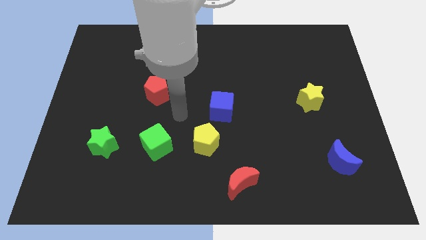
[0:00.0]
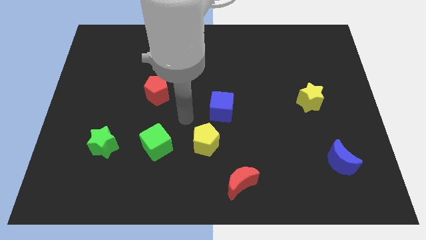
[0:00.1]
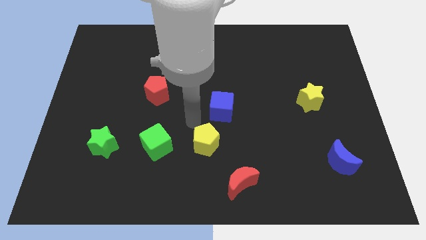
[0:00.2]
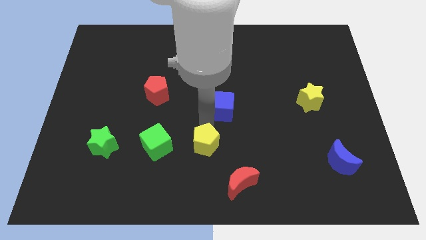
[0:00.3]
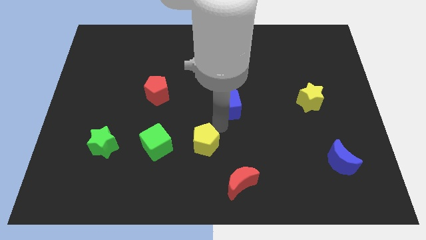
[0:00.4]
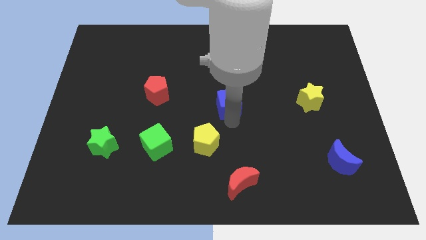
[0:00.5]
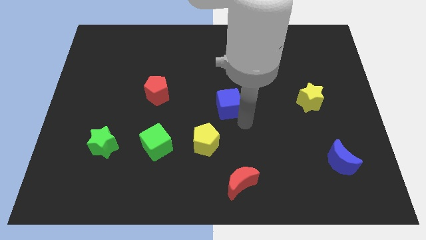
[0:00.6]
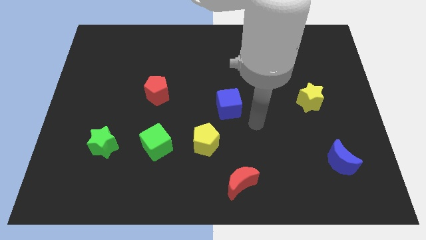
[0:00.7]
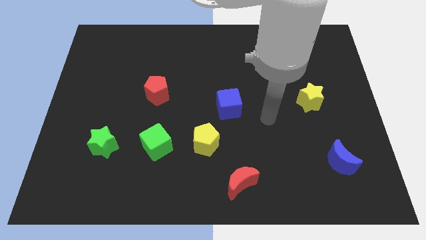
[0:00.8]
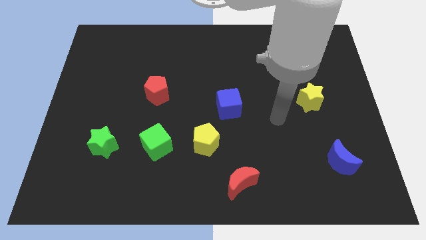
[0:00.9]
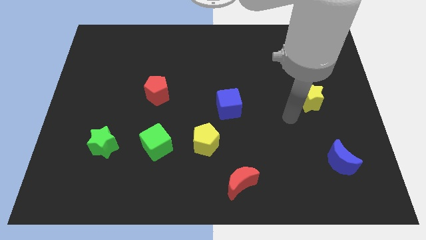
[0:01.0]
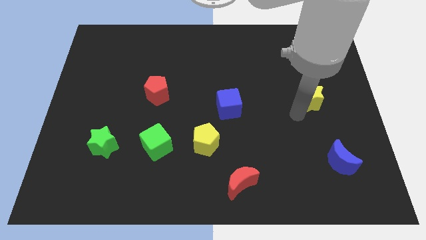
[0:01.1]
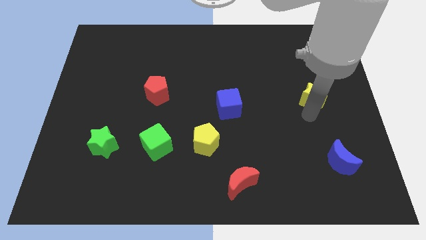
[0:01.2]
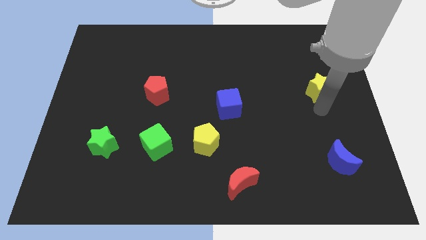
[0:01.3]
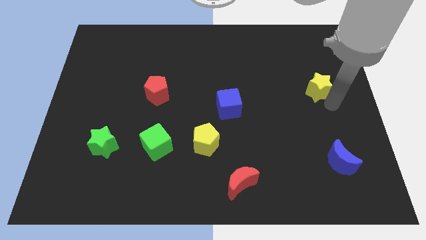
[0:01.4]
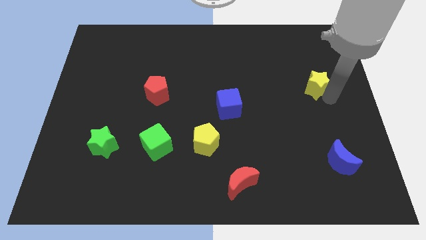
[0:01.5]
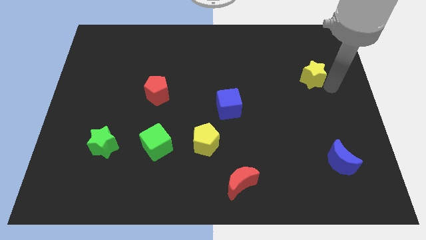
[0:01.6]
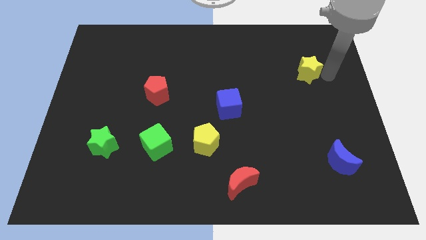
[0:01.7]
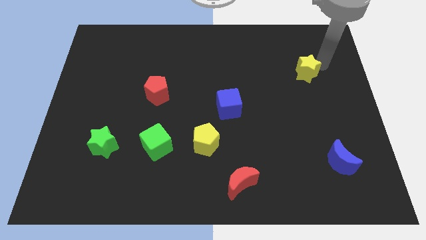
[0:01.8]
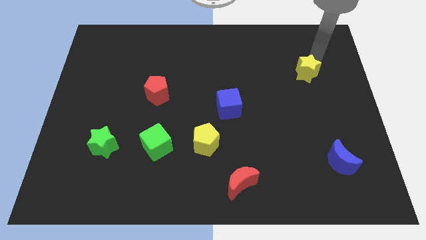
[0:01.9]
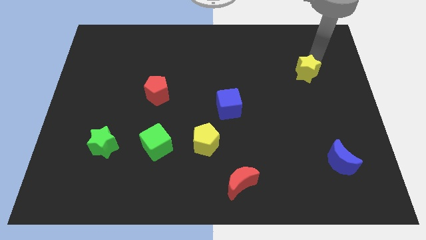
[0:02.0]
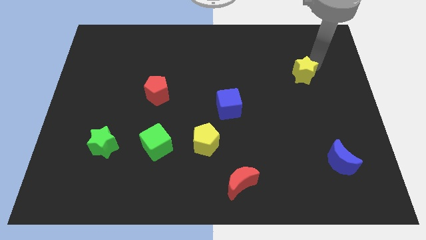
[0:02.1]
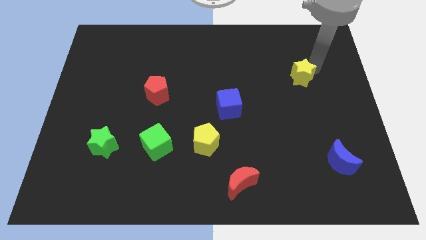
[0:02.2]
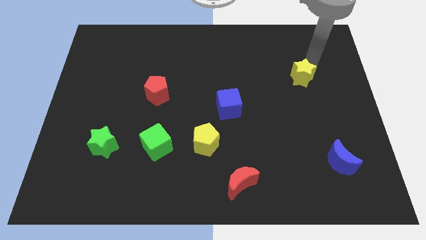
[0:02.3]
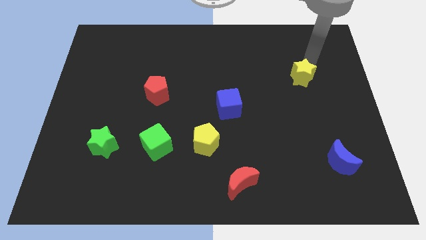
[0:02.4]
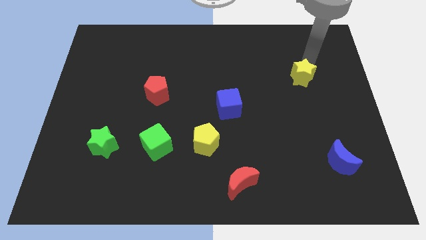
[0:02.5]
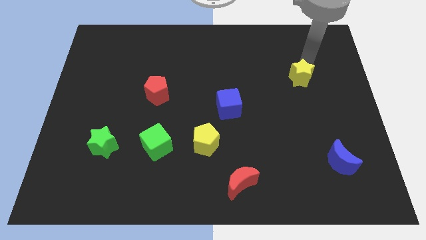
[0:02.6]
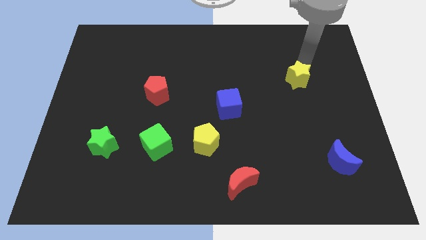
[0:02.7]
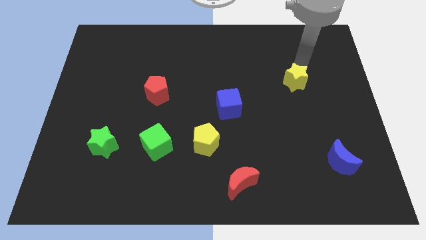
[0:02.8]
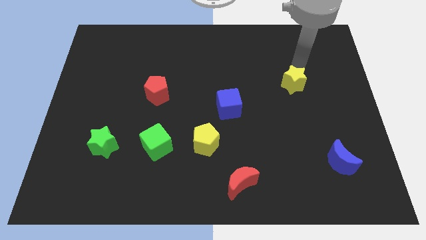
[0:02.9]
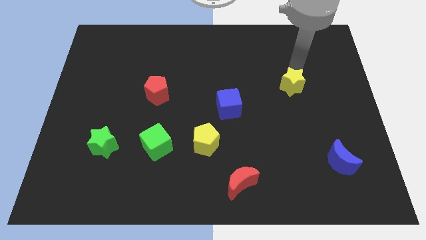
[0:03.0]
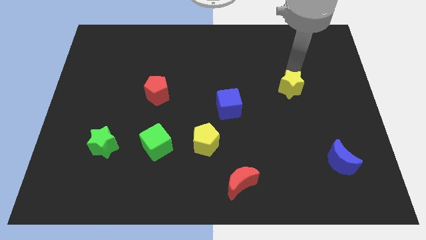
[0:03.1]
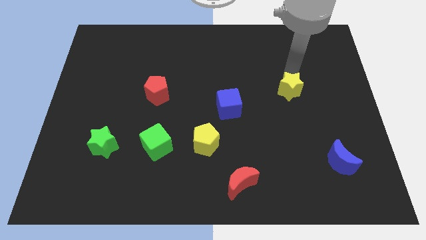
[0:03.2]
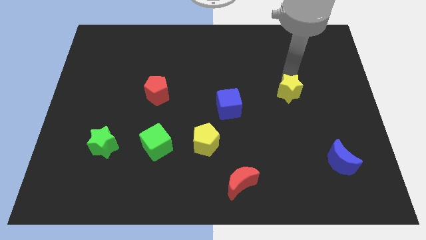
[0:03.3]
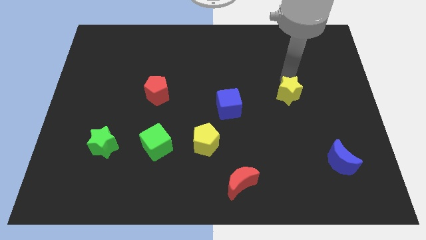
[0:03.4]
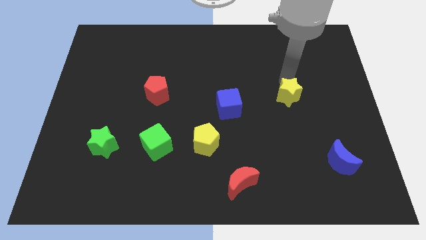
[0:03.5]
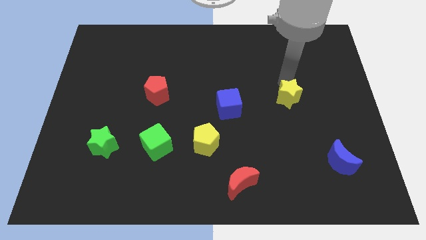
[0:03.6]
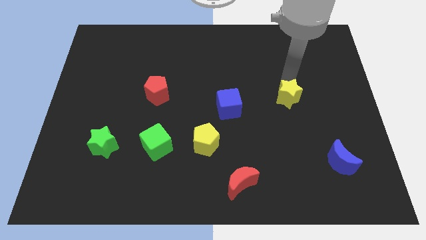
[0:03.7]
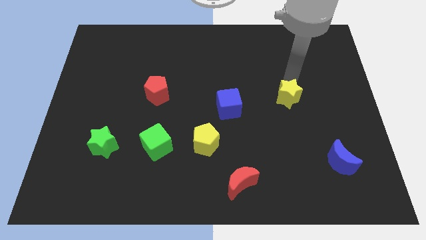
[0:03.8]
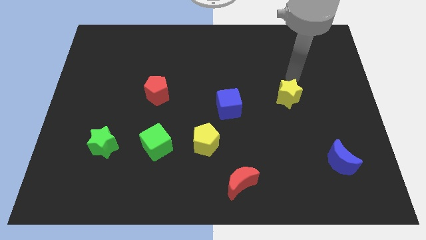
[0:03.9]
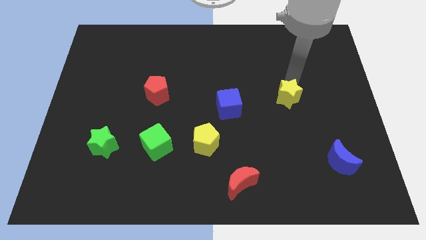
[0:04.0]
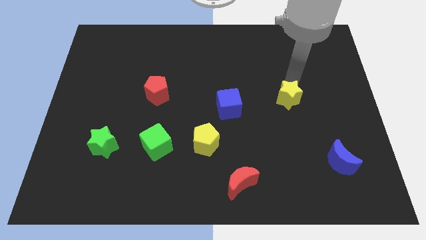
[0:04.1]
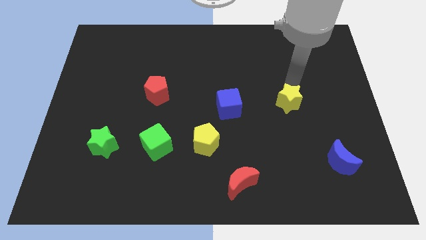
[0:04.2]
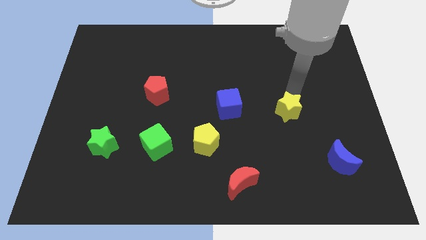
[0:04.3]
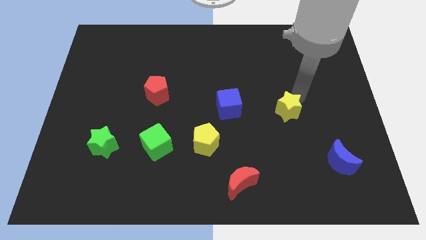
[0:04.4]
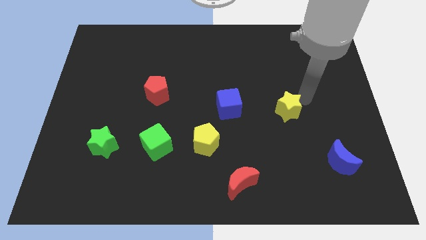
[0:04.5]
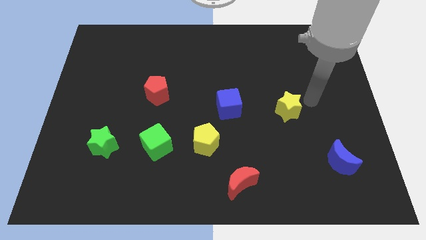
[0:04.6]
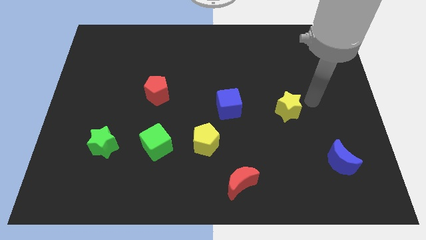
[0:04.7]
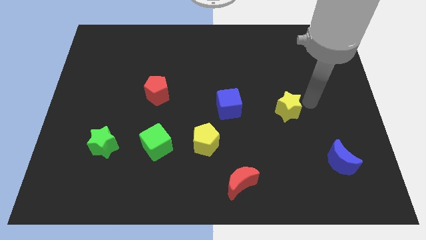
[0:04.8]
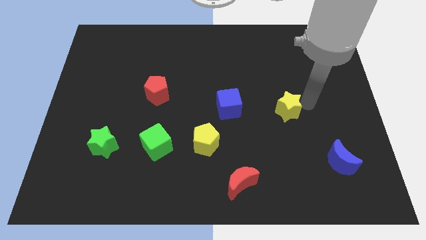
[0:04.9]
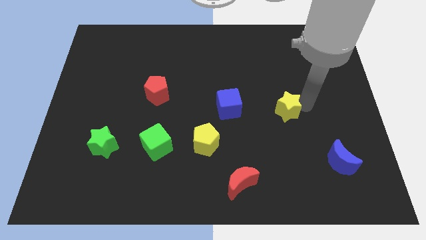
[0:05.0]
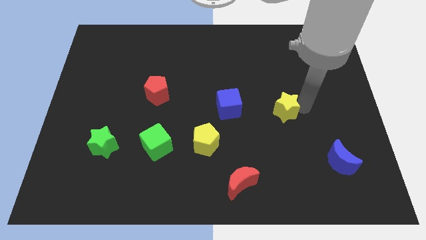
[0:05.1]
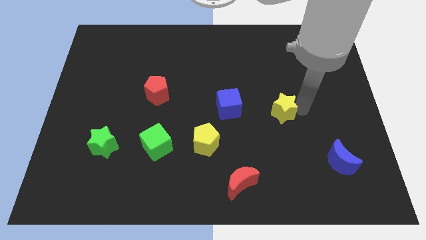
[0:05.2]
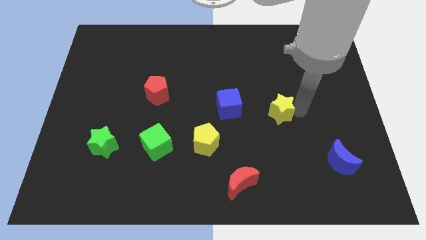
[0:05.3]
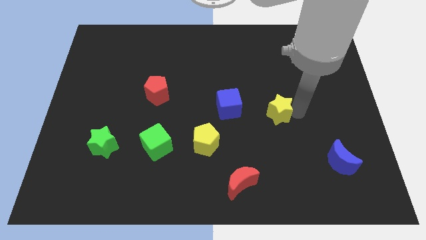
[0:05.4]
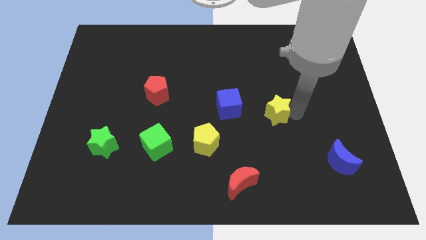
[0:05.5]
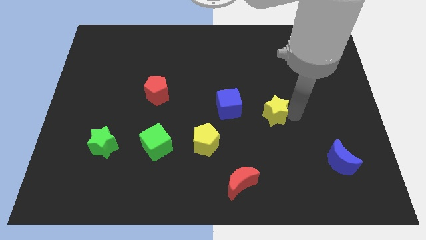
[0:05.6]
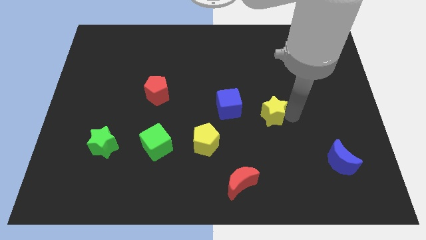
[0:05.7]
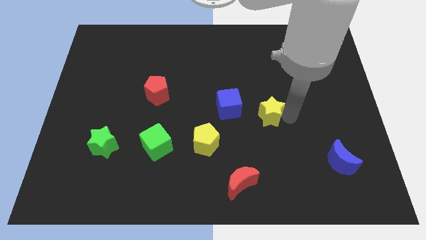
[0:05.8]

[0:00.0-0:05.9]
slide the yellow star to the bottom right side of the blue cube

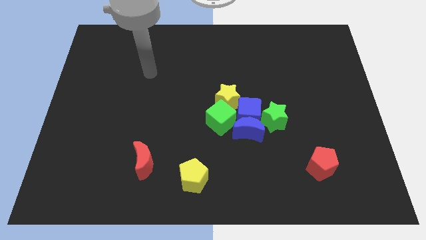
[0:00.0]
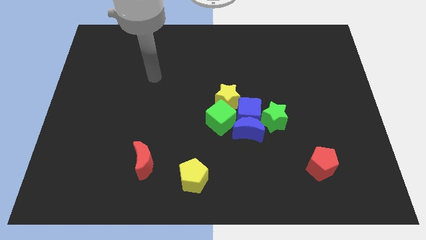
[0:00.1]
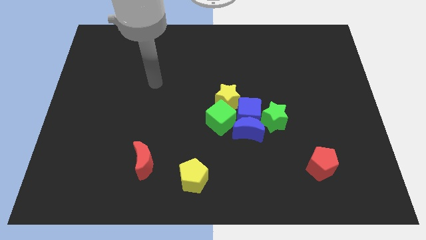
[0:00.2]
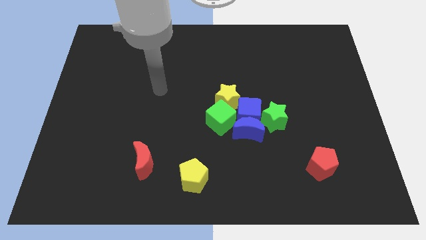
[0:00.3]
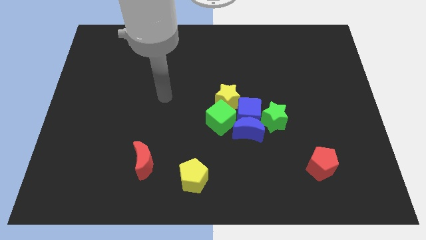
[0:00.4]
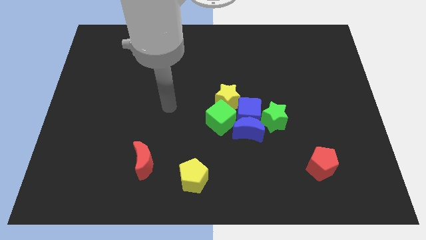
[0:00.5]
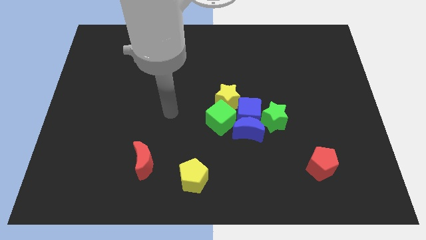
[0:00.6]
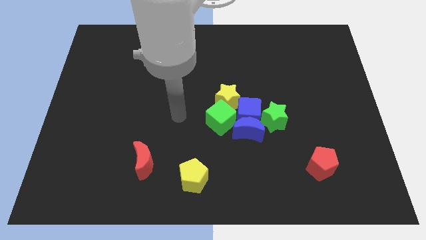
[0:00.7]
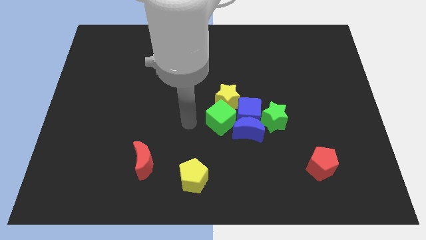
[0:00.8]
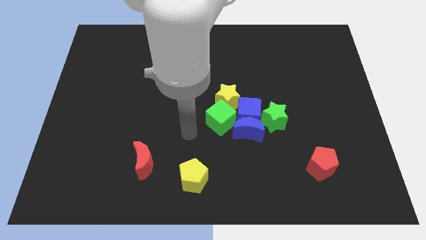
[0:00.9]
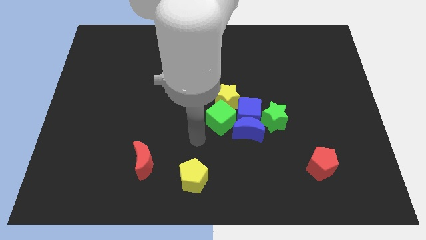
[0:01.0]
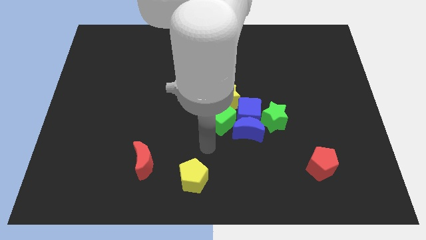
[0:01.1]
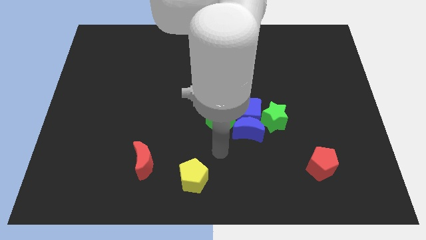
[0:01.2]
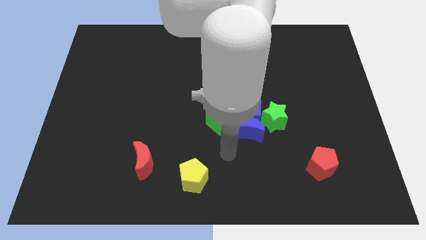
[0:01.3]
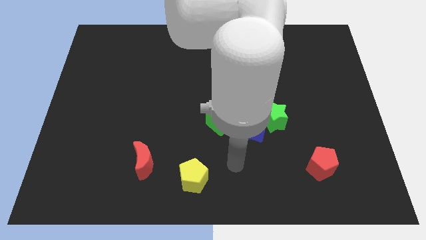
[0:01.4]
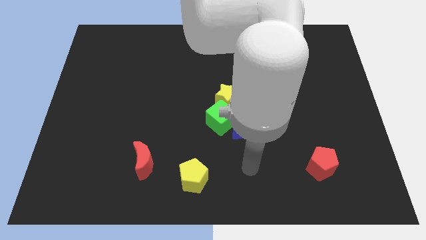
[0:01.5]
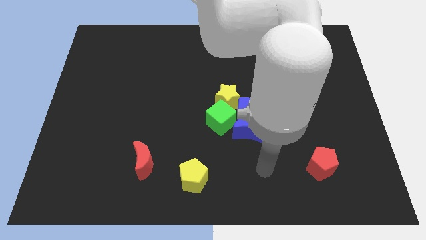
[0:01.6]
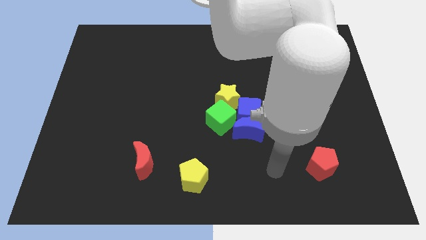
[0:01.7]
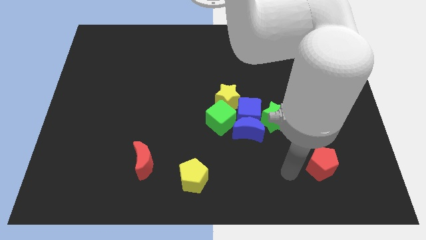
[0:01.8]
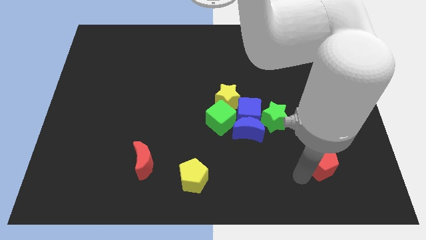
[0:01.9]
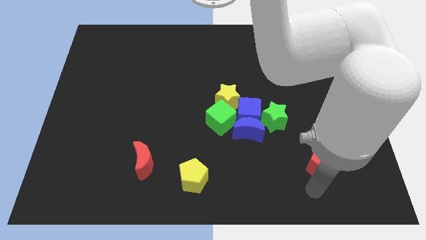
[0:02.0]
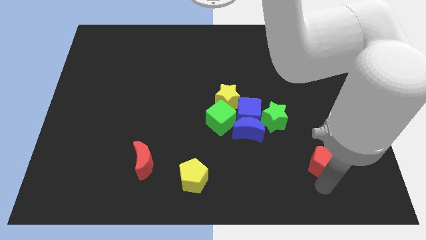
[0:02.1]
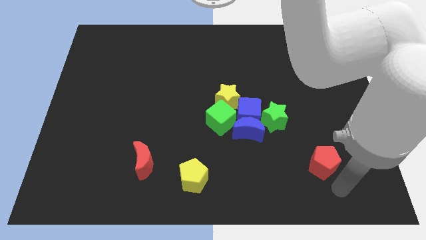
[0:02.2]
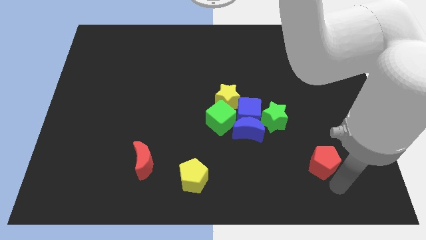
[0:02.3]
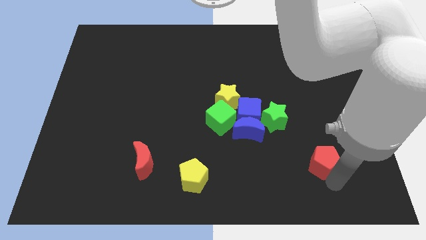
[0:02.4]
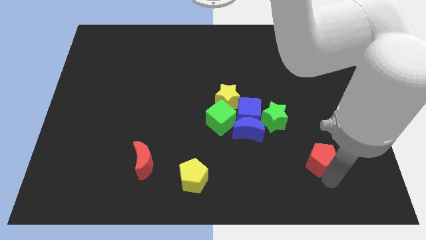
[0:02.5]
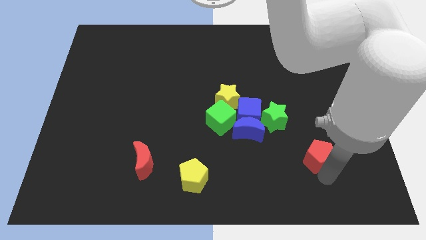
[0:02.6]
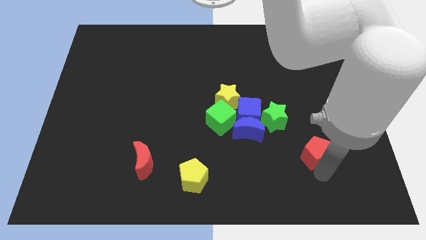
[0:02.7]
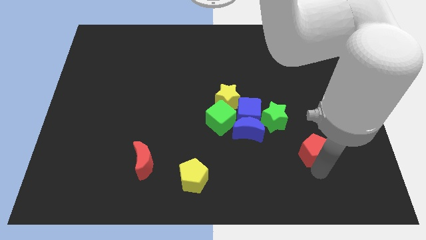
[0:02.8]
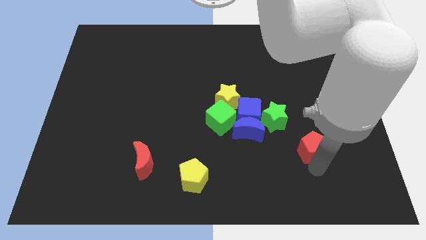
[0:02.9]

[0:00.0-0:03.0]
slide the red pentagon just right of the blue moon
